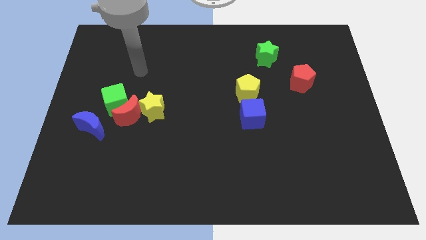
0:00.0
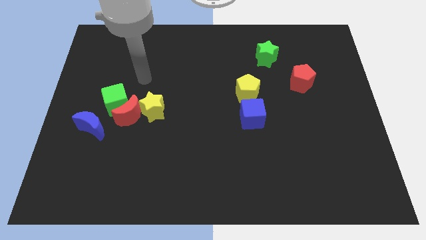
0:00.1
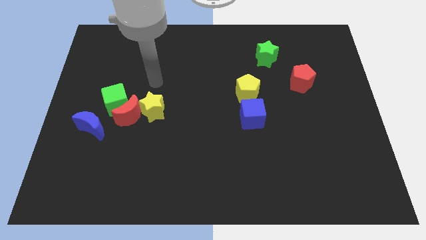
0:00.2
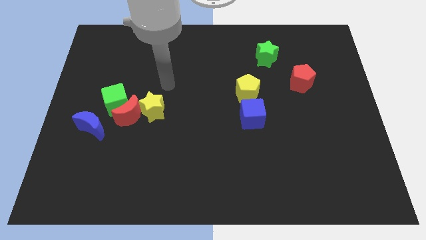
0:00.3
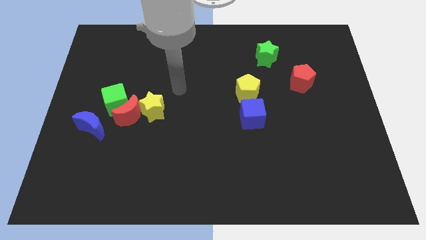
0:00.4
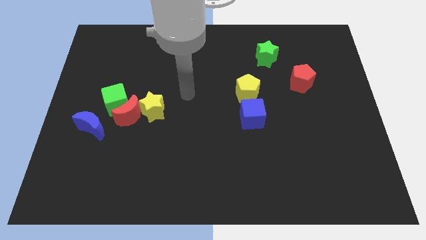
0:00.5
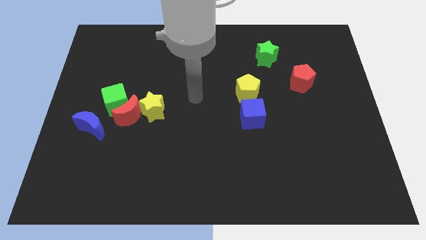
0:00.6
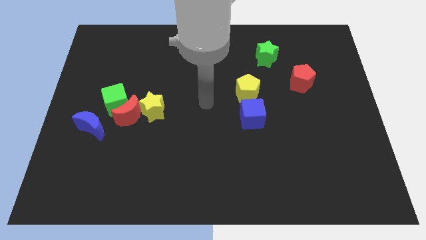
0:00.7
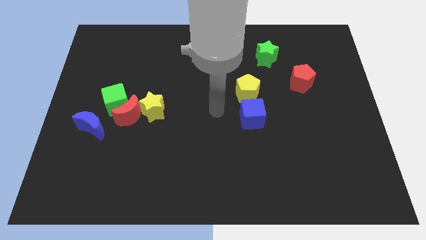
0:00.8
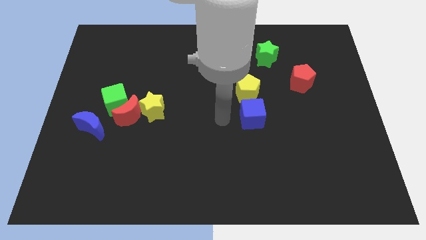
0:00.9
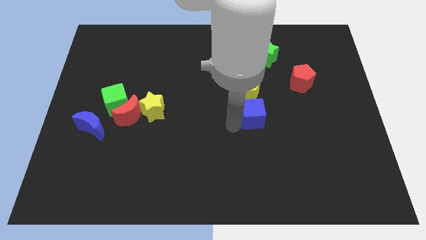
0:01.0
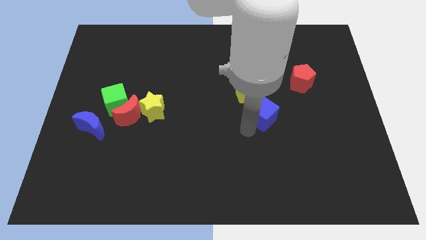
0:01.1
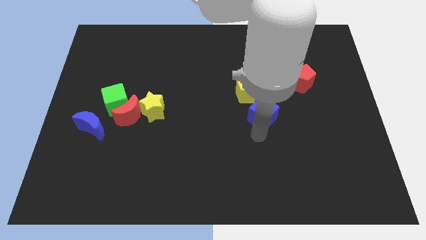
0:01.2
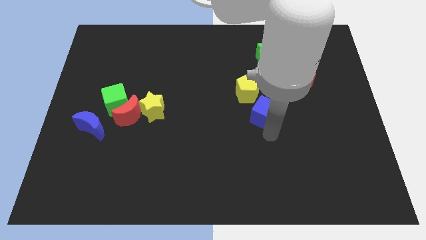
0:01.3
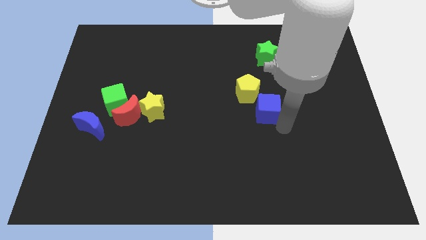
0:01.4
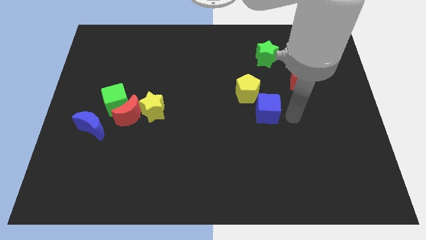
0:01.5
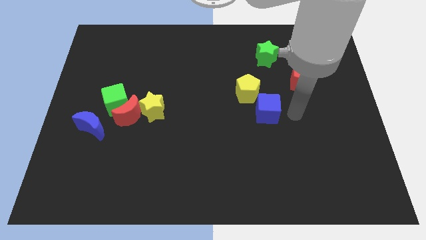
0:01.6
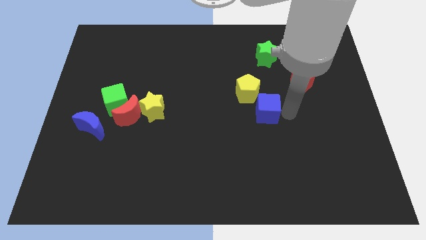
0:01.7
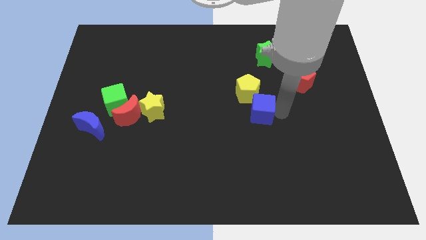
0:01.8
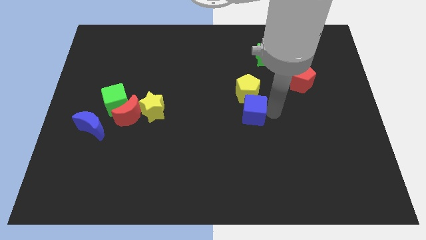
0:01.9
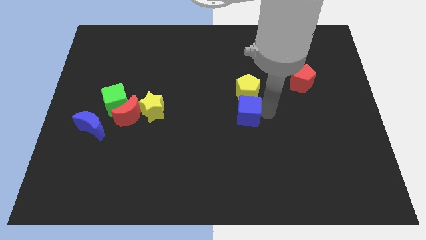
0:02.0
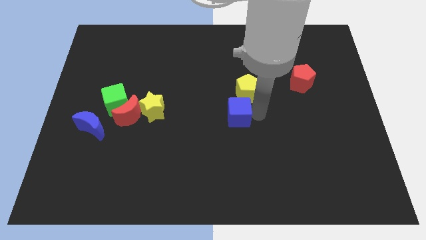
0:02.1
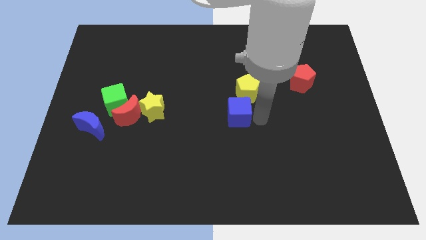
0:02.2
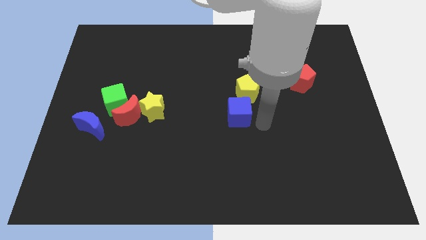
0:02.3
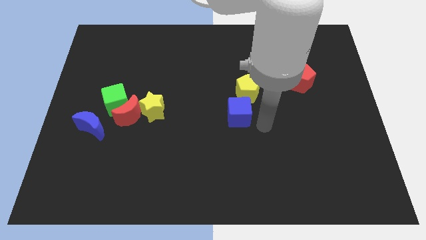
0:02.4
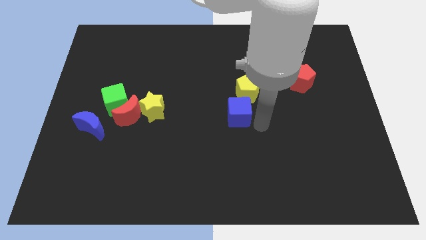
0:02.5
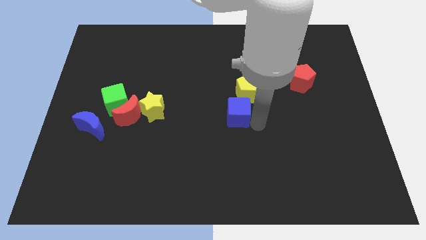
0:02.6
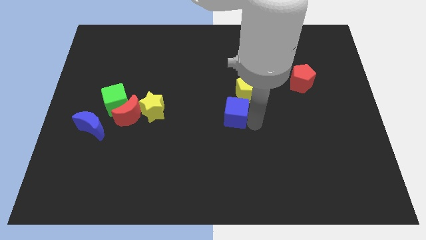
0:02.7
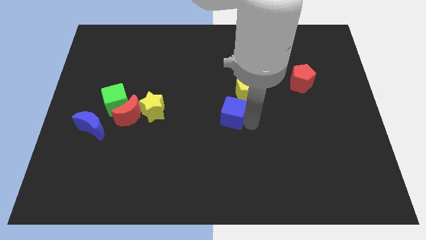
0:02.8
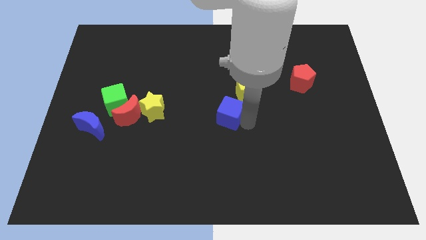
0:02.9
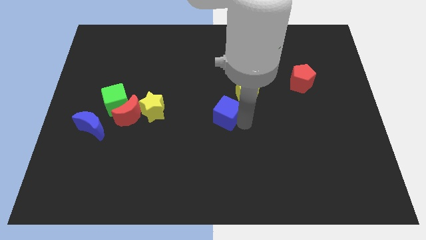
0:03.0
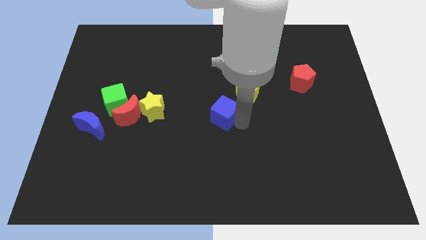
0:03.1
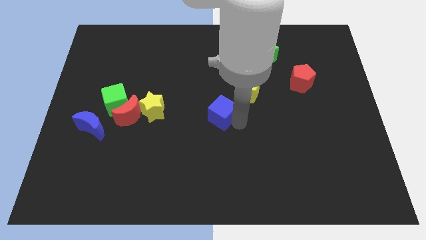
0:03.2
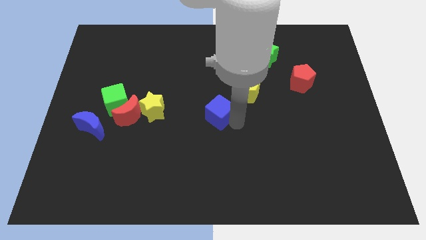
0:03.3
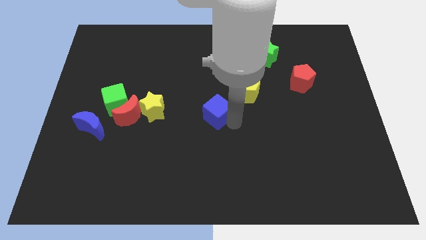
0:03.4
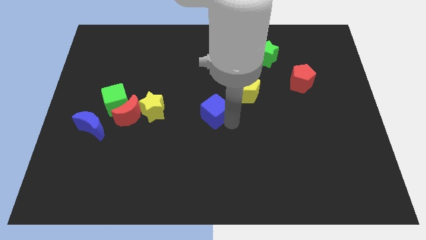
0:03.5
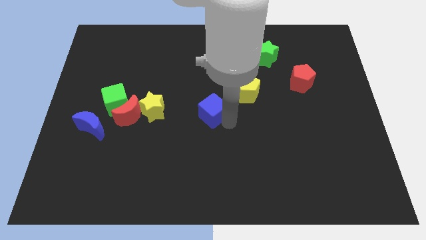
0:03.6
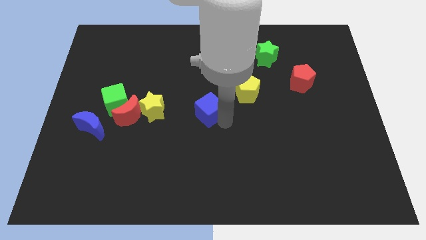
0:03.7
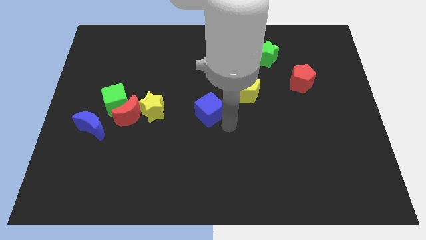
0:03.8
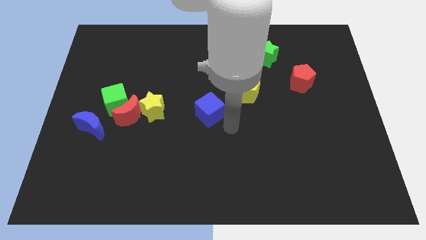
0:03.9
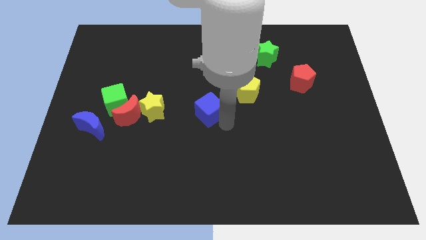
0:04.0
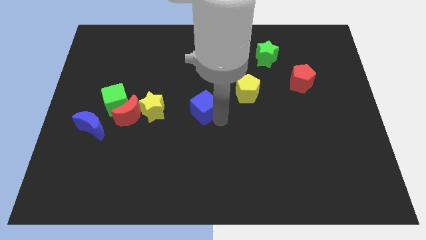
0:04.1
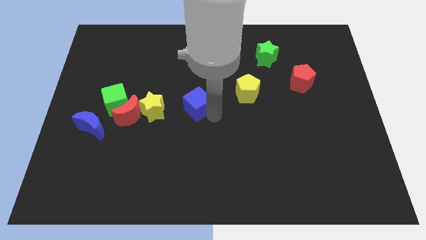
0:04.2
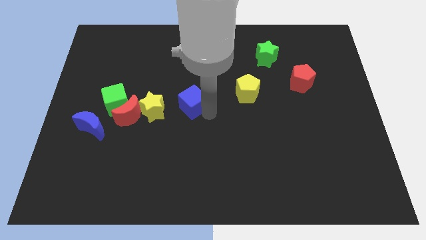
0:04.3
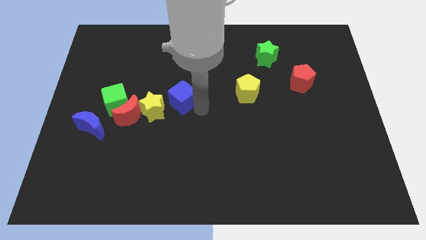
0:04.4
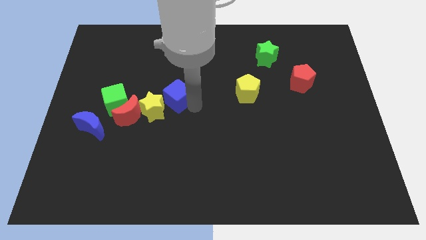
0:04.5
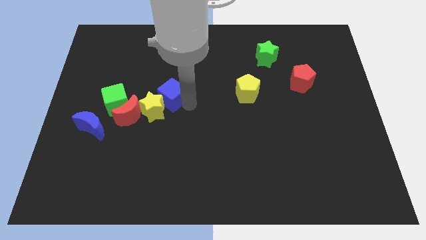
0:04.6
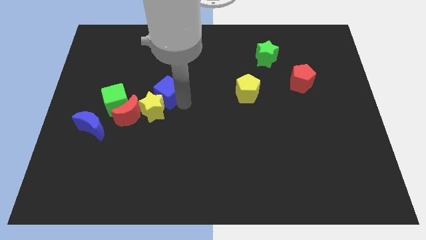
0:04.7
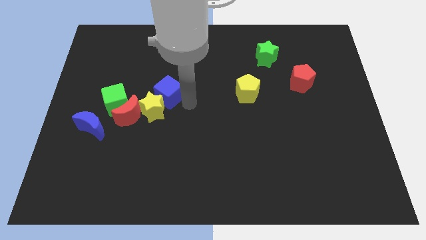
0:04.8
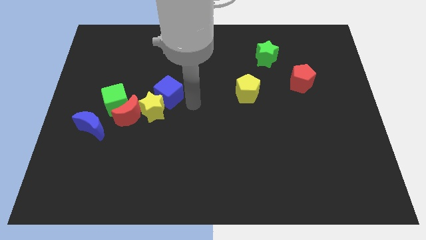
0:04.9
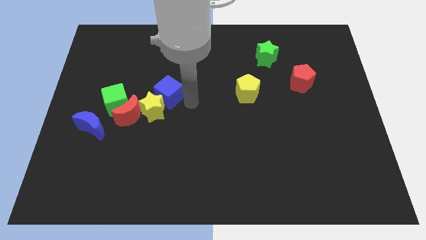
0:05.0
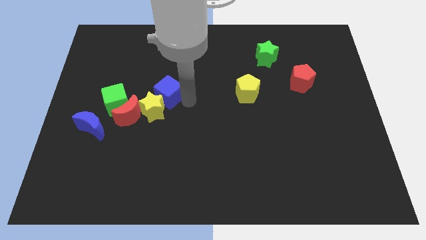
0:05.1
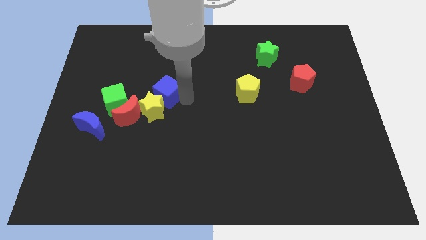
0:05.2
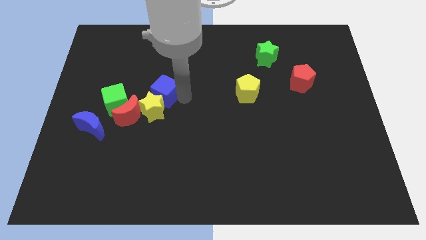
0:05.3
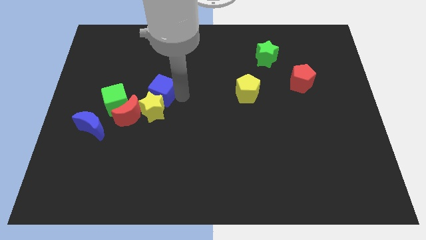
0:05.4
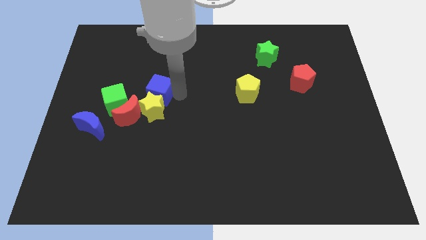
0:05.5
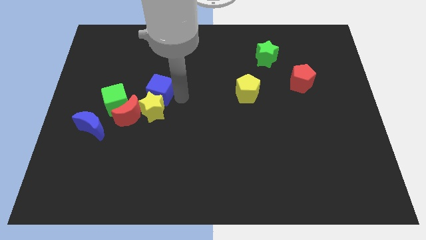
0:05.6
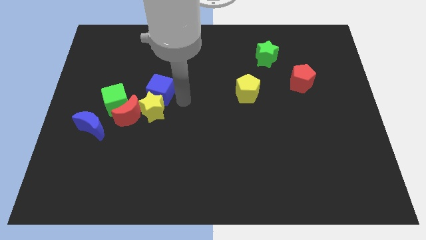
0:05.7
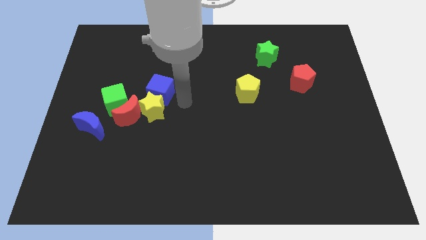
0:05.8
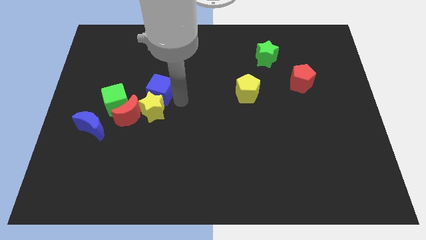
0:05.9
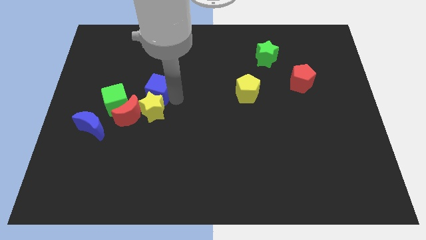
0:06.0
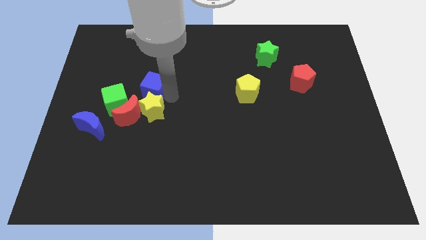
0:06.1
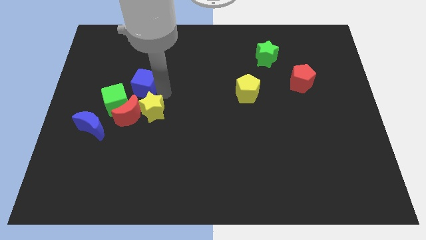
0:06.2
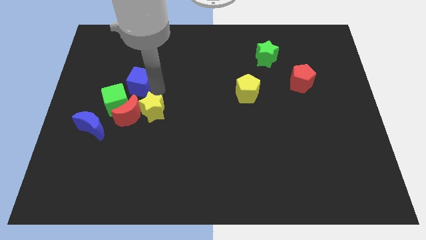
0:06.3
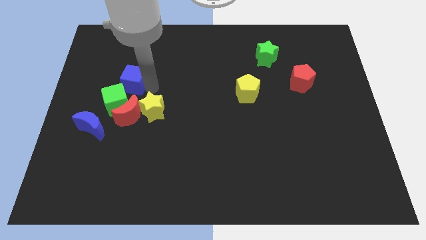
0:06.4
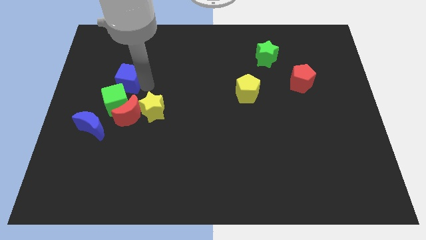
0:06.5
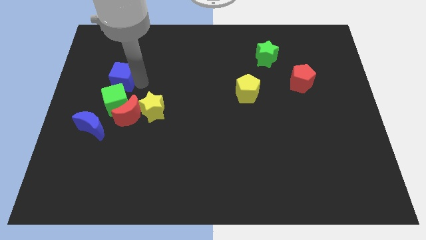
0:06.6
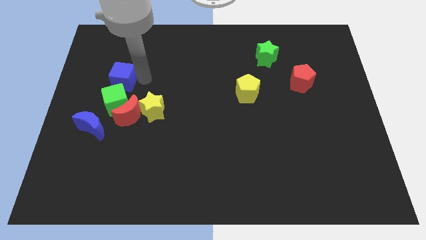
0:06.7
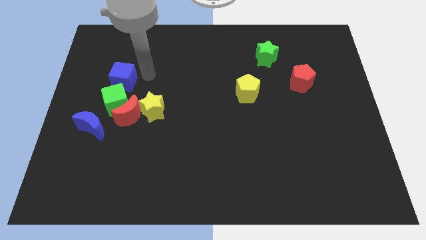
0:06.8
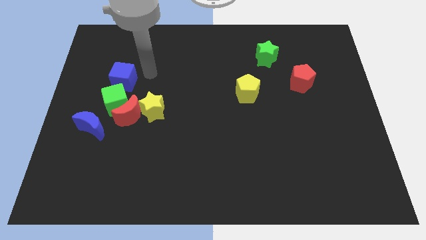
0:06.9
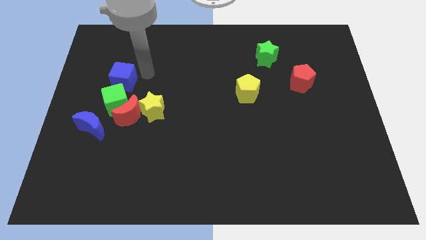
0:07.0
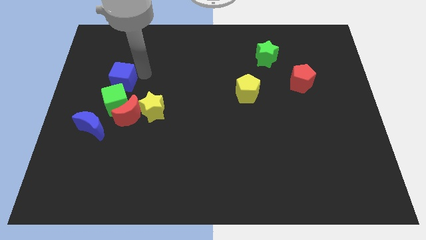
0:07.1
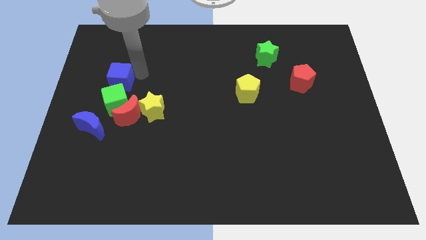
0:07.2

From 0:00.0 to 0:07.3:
push the blue cube to the top left side of the green cube
